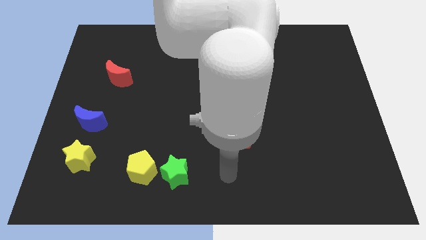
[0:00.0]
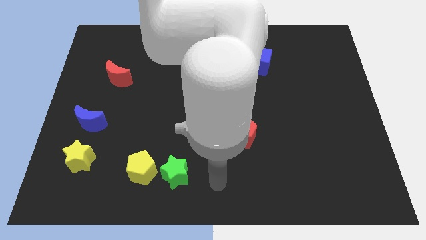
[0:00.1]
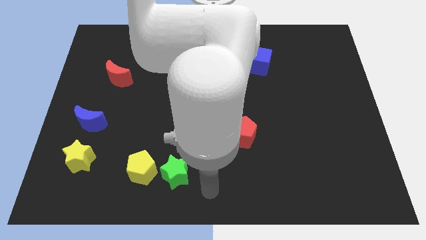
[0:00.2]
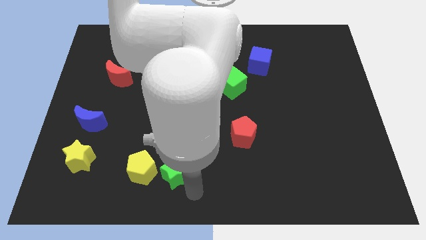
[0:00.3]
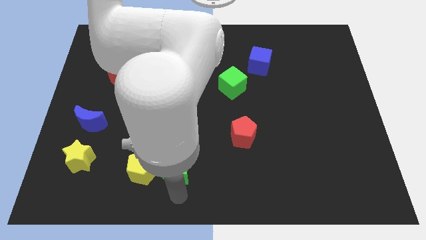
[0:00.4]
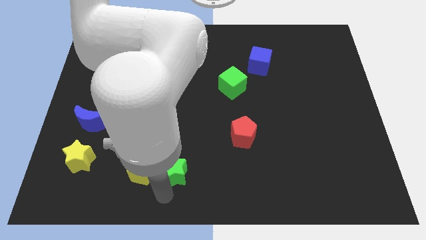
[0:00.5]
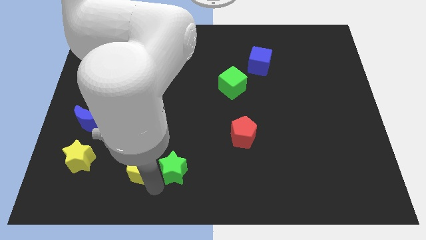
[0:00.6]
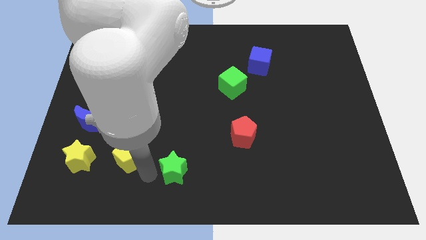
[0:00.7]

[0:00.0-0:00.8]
pull the green star apart from the yellow pentagon

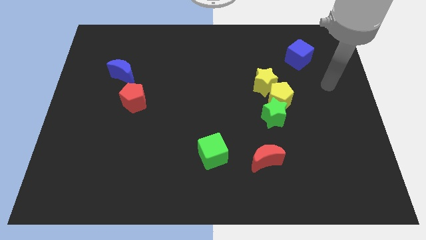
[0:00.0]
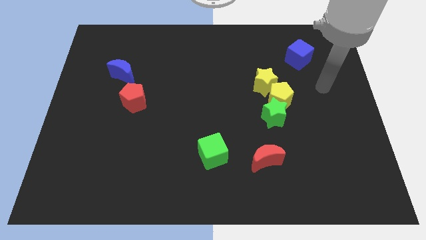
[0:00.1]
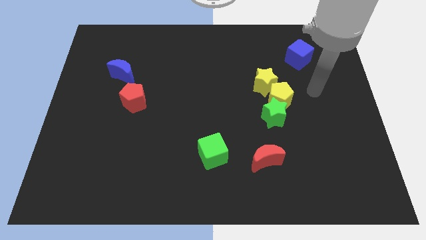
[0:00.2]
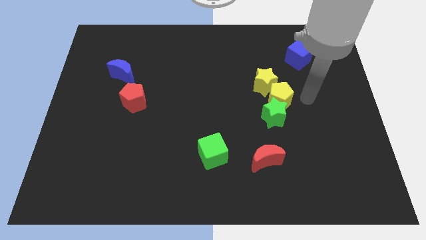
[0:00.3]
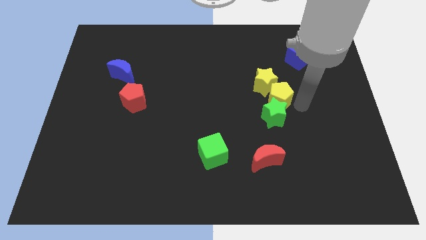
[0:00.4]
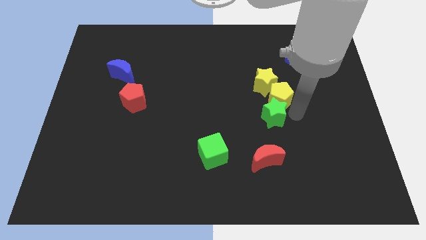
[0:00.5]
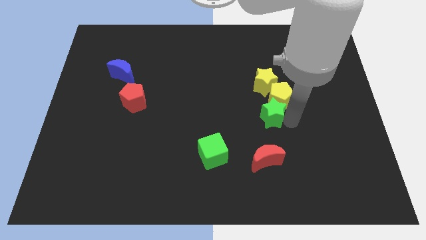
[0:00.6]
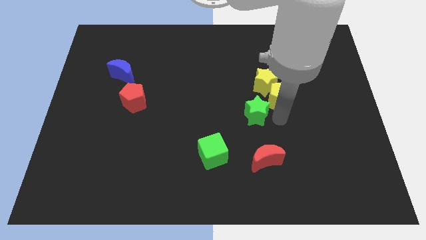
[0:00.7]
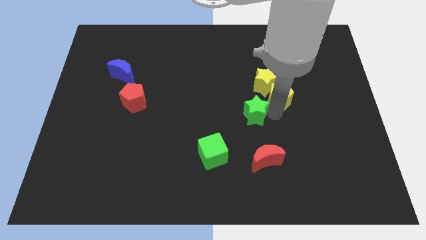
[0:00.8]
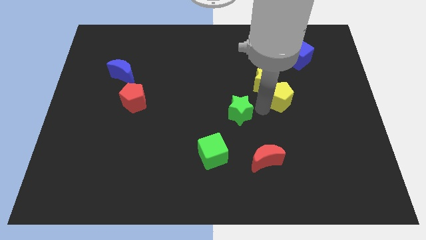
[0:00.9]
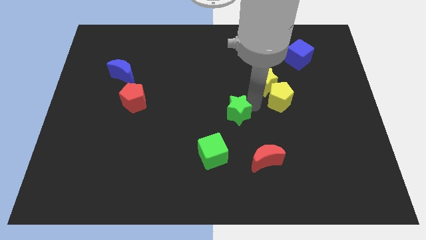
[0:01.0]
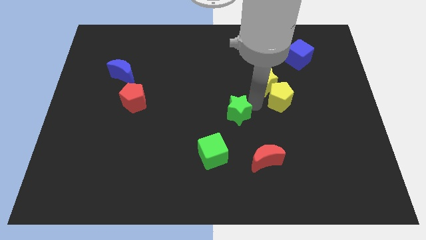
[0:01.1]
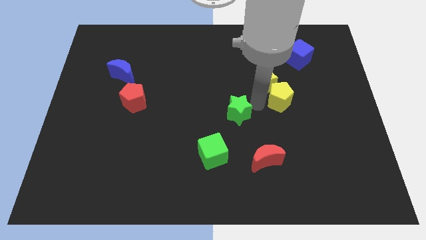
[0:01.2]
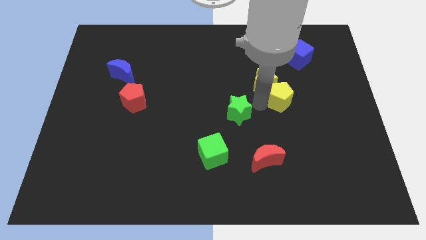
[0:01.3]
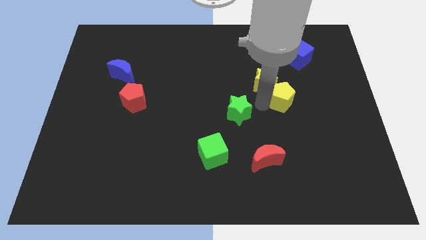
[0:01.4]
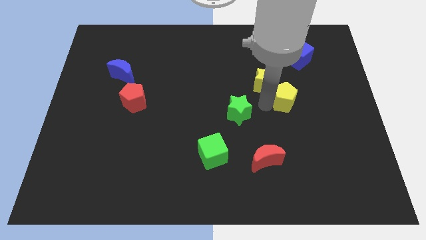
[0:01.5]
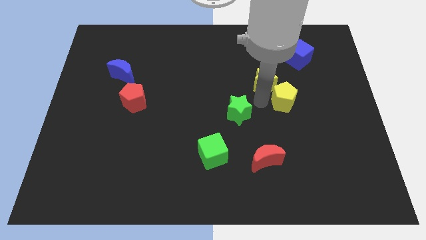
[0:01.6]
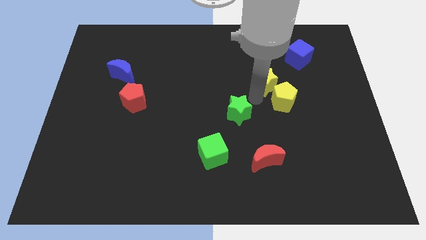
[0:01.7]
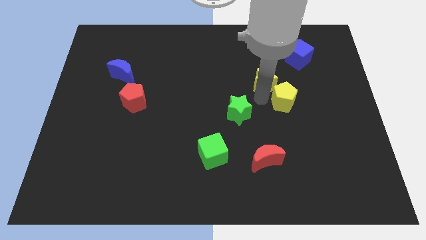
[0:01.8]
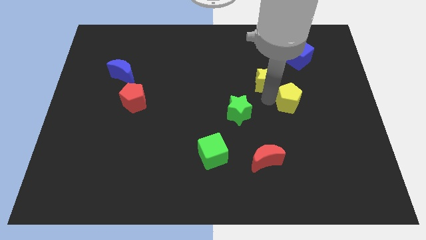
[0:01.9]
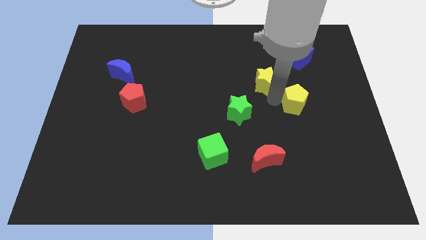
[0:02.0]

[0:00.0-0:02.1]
move the yellow pentagon away from the green star and yellow star

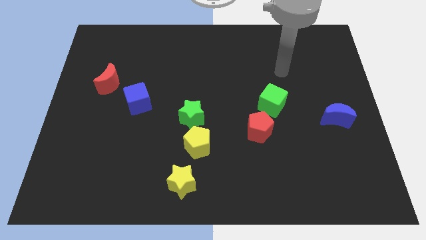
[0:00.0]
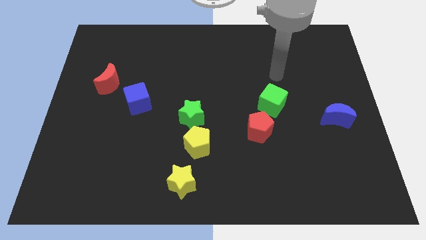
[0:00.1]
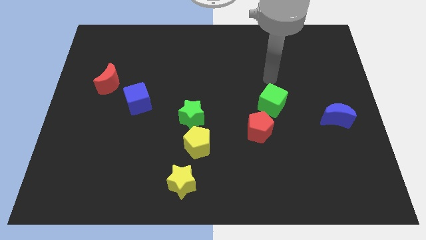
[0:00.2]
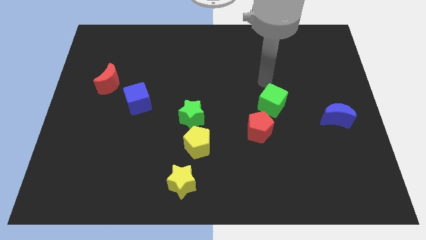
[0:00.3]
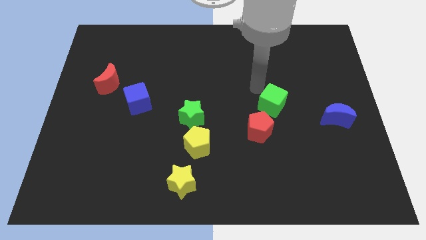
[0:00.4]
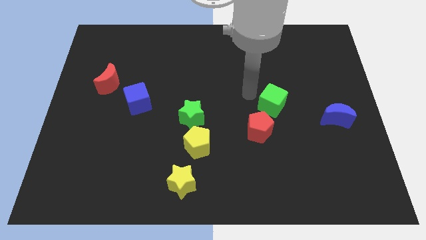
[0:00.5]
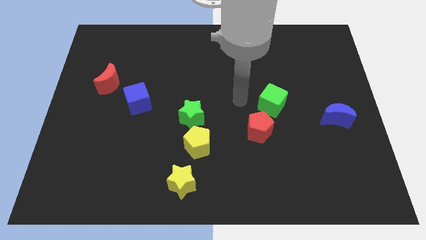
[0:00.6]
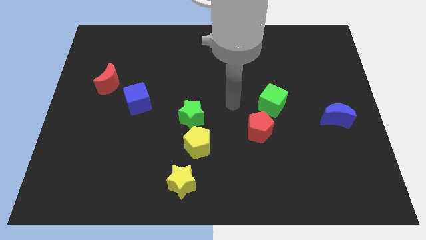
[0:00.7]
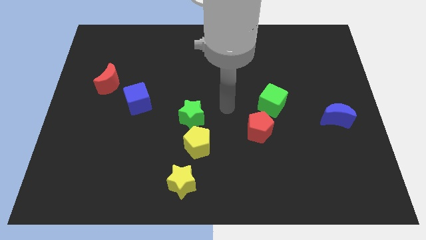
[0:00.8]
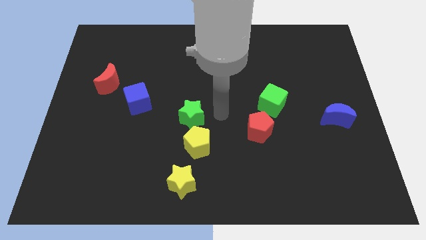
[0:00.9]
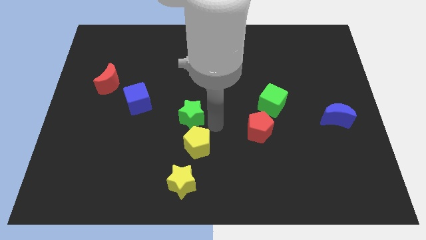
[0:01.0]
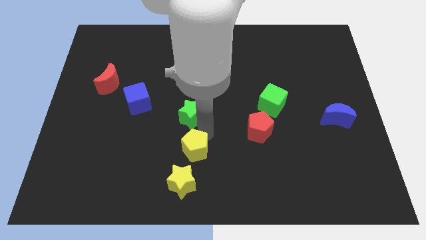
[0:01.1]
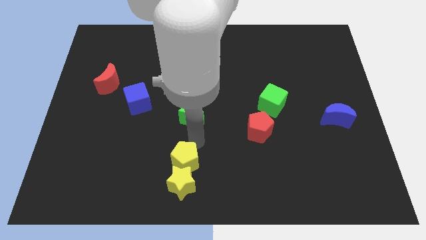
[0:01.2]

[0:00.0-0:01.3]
separate the green star from the yellow pentagon

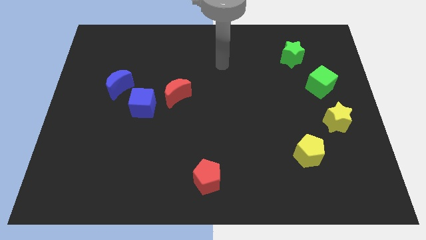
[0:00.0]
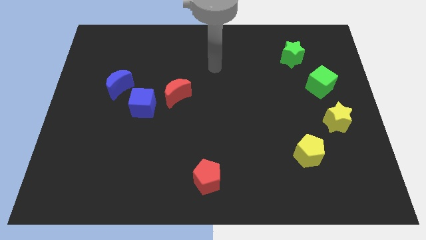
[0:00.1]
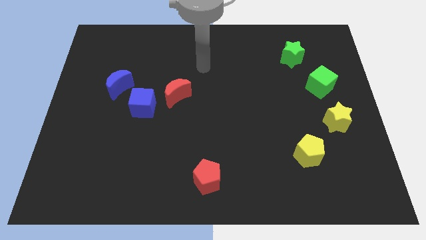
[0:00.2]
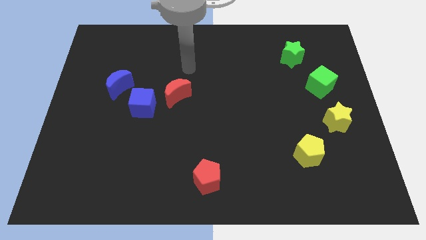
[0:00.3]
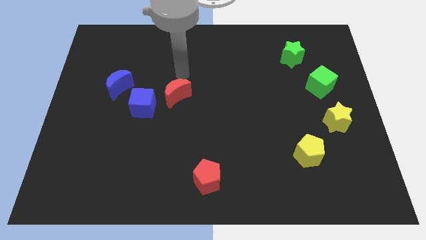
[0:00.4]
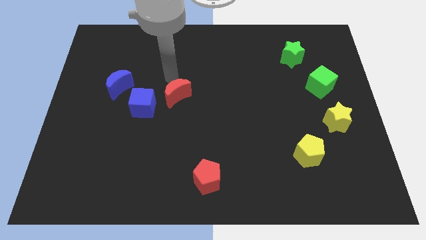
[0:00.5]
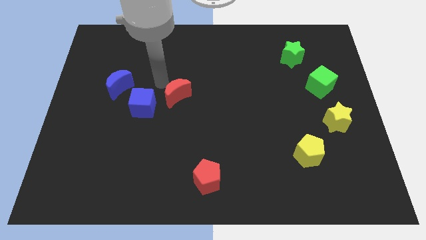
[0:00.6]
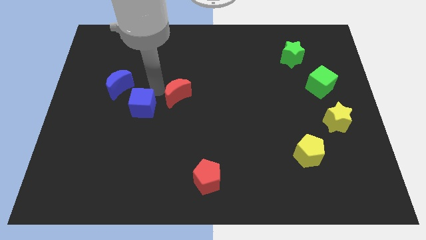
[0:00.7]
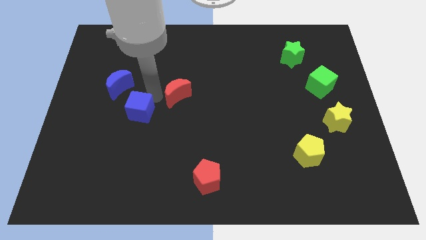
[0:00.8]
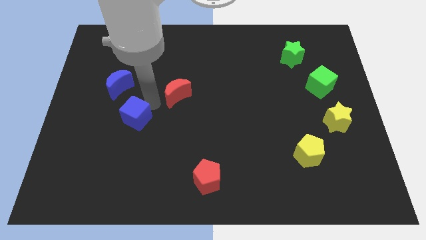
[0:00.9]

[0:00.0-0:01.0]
move the red moon away from the blue cube

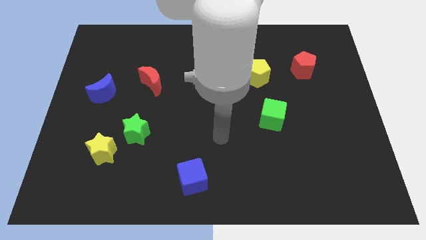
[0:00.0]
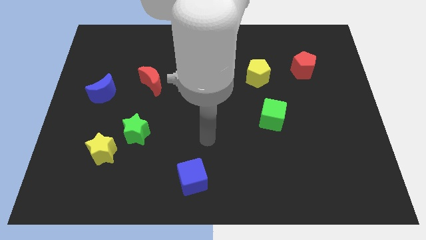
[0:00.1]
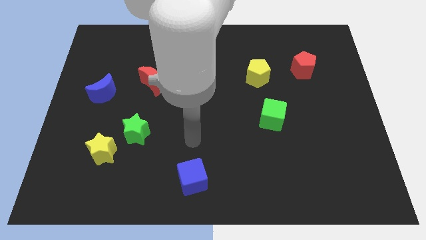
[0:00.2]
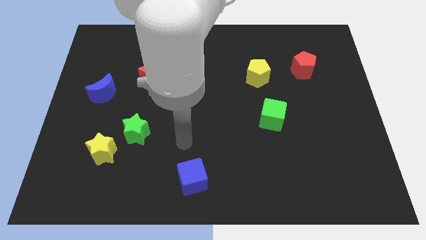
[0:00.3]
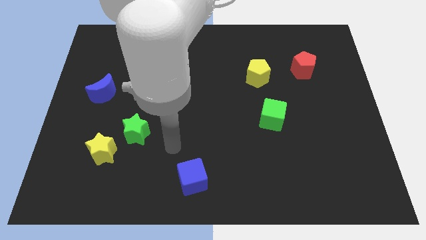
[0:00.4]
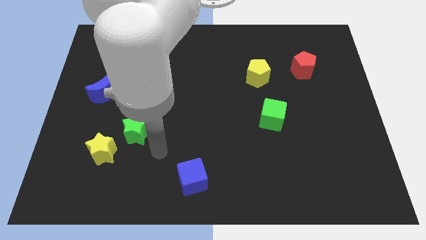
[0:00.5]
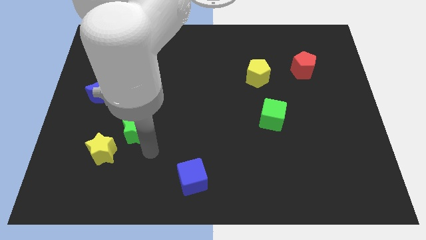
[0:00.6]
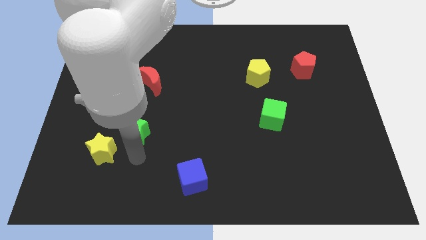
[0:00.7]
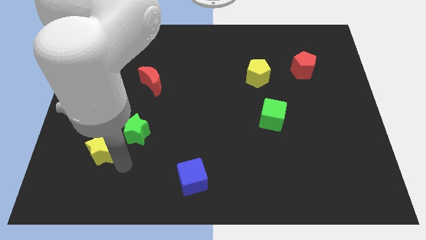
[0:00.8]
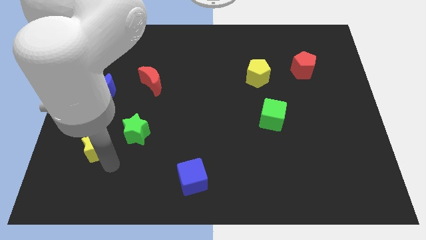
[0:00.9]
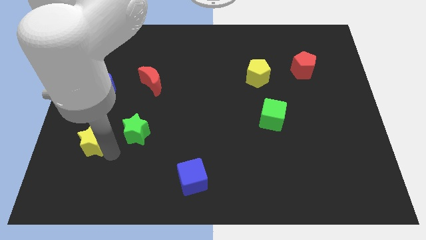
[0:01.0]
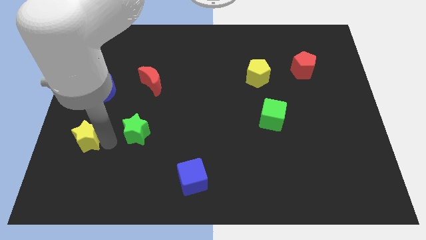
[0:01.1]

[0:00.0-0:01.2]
move the green star away from the yellow star

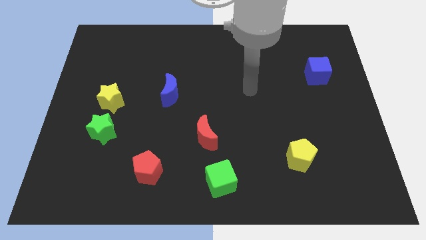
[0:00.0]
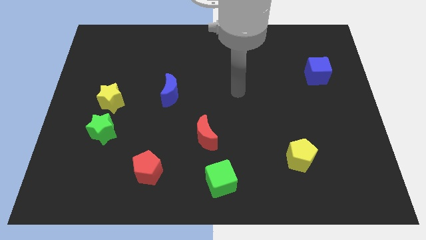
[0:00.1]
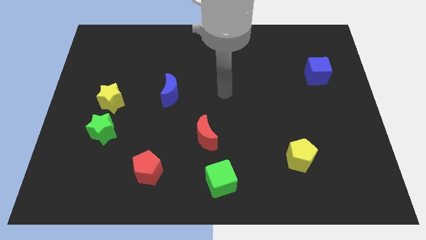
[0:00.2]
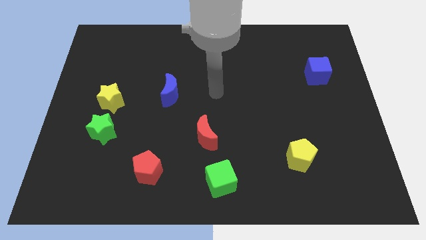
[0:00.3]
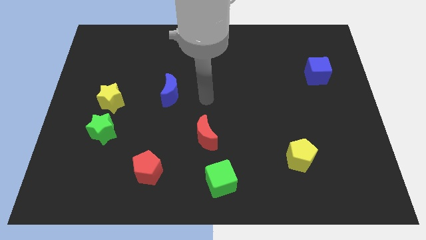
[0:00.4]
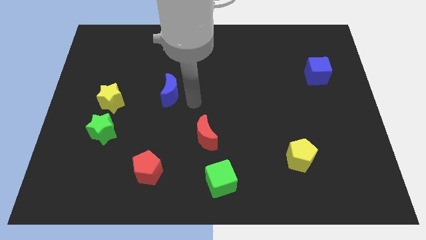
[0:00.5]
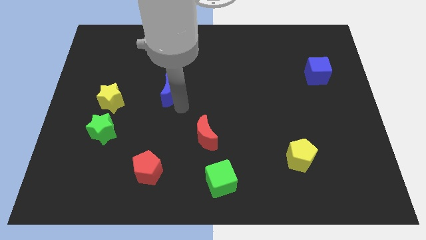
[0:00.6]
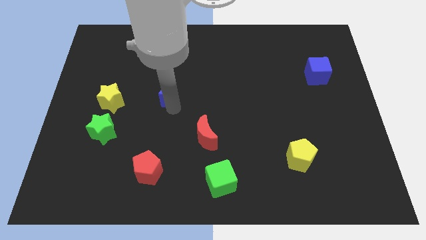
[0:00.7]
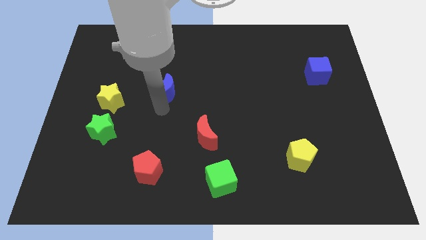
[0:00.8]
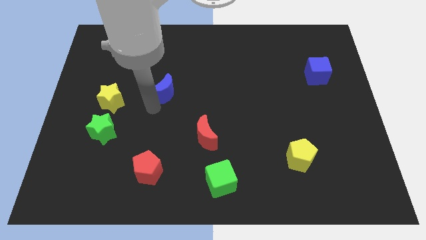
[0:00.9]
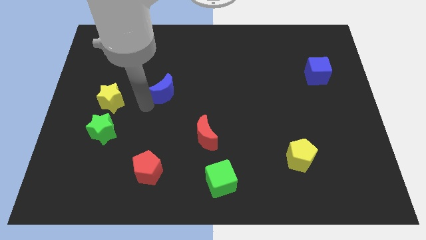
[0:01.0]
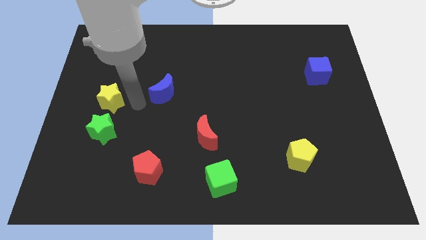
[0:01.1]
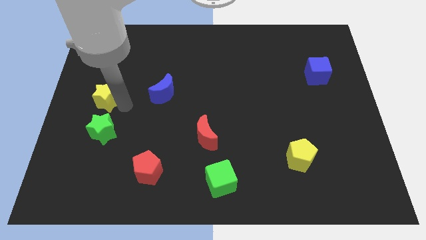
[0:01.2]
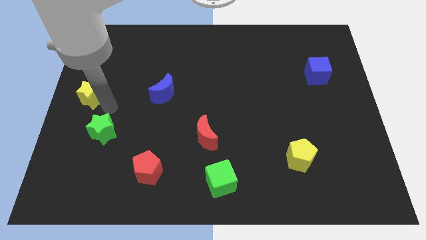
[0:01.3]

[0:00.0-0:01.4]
separate the green star from the yellow star

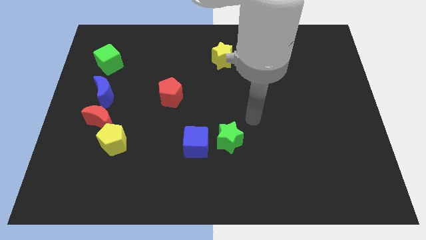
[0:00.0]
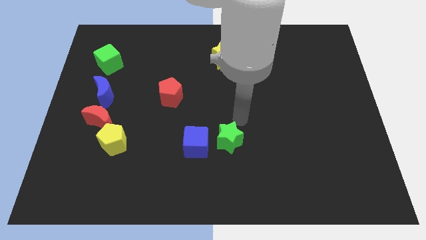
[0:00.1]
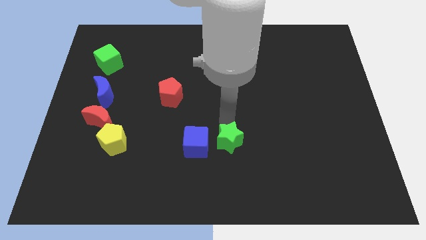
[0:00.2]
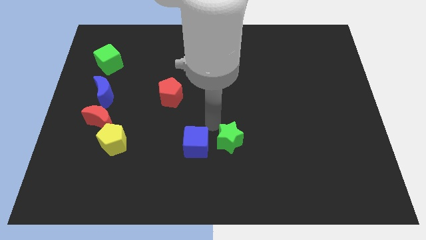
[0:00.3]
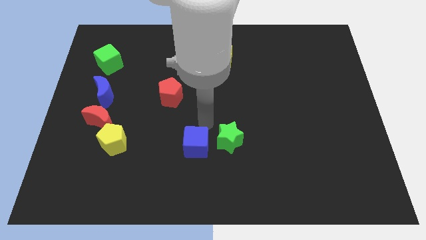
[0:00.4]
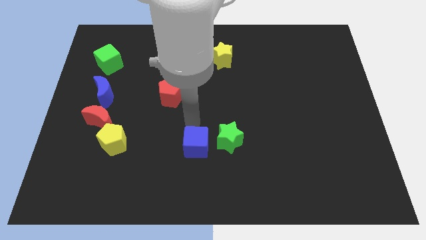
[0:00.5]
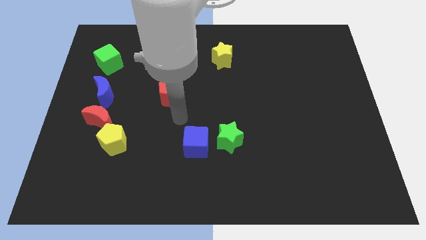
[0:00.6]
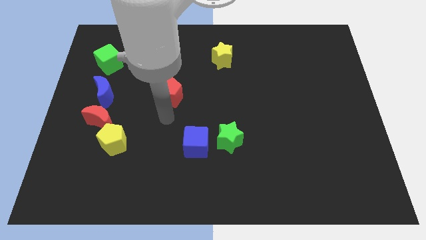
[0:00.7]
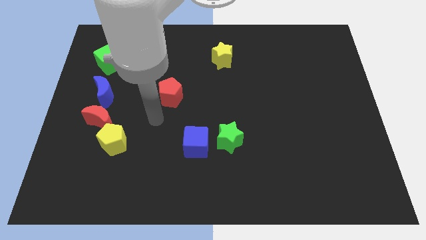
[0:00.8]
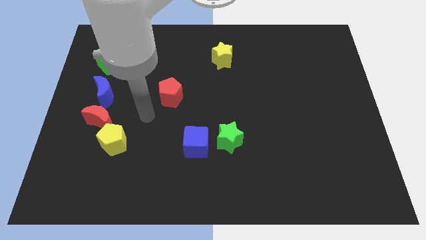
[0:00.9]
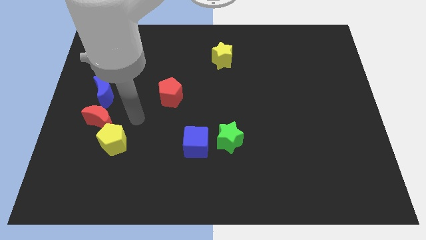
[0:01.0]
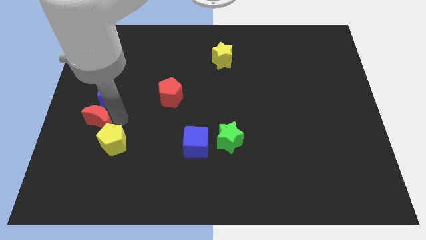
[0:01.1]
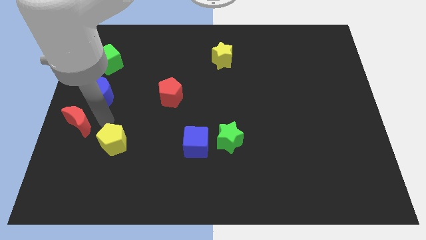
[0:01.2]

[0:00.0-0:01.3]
pull the yellow pentagon apart from the red moon

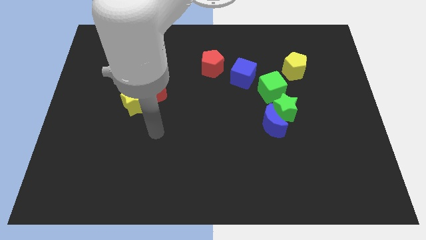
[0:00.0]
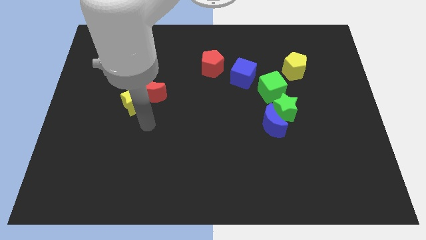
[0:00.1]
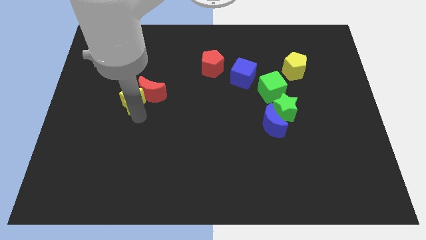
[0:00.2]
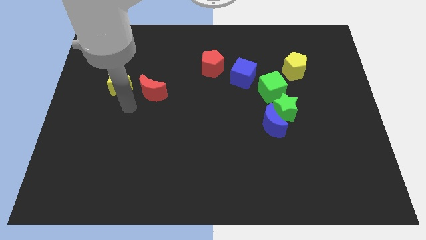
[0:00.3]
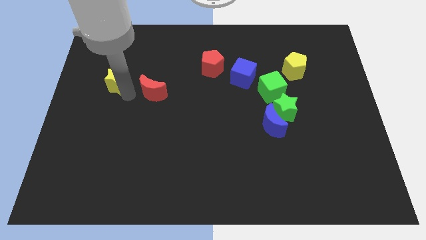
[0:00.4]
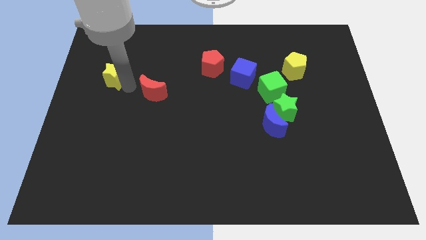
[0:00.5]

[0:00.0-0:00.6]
separate the red moon from the yellow star
